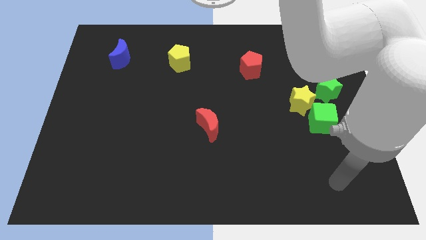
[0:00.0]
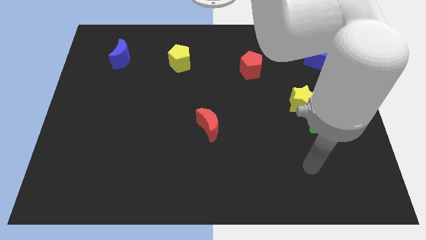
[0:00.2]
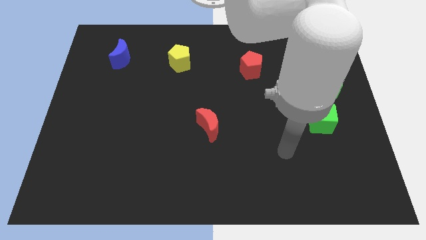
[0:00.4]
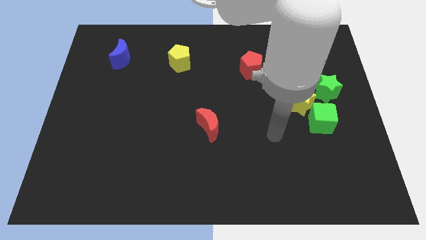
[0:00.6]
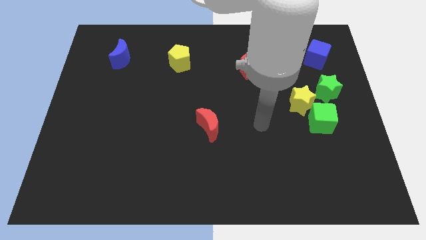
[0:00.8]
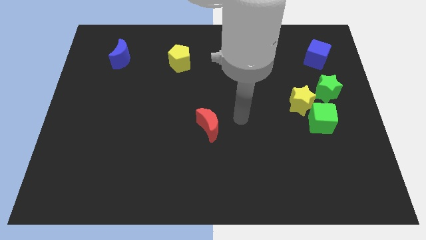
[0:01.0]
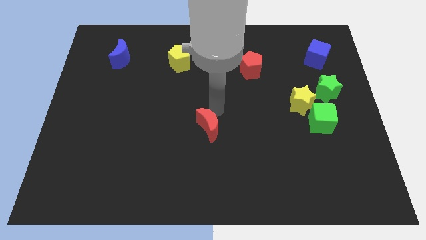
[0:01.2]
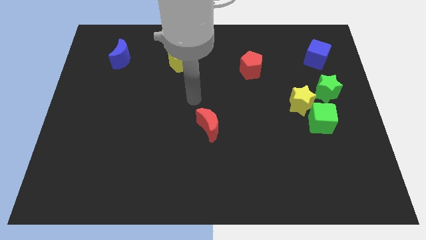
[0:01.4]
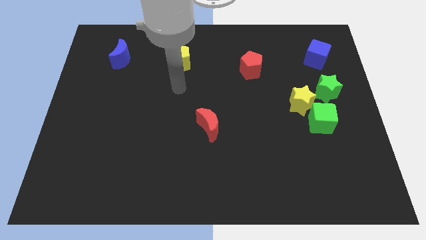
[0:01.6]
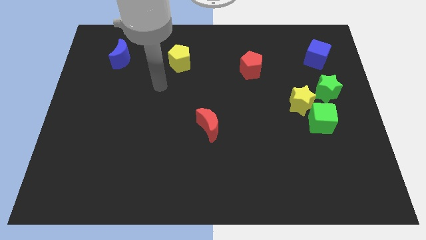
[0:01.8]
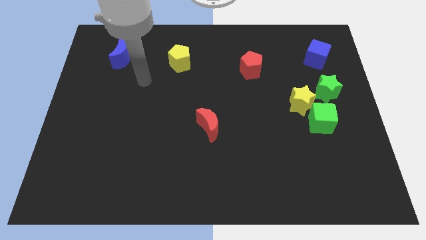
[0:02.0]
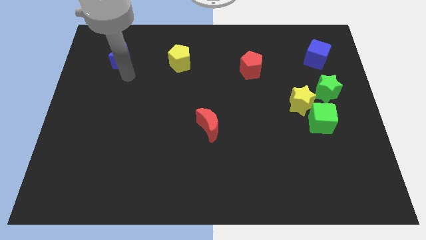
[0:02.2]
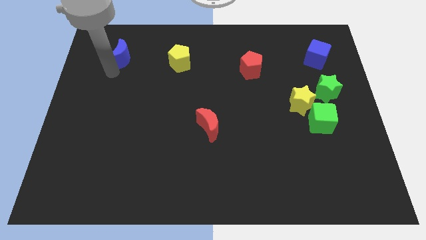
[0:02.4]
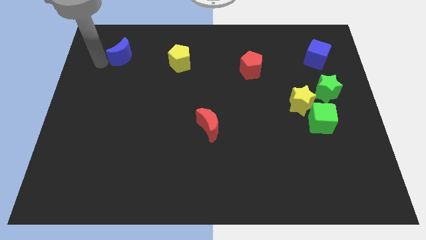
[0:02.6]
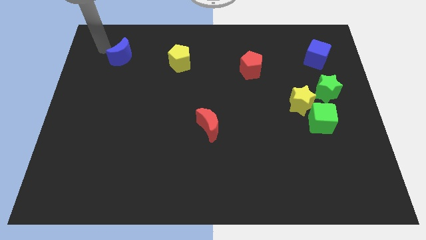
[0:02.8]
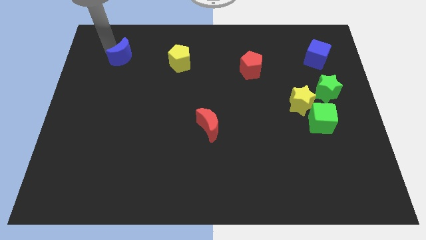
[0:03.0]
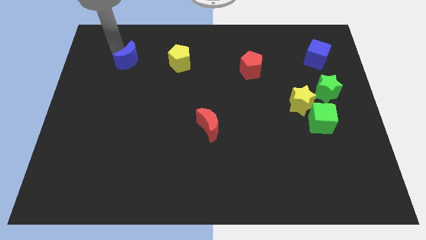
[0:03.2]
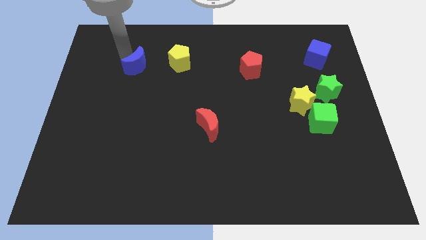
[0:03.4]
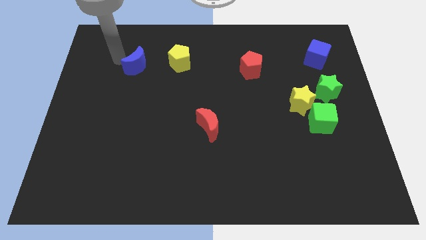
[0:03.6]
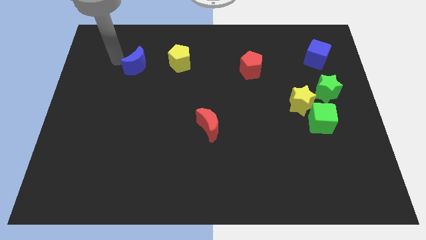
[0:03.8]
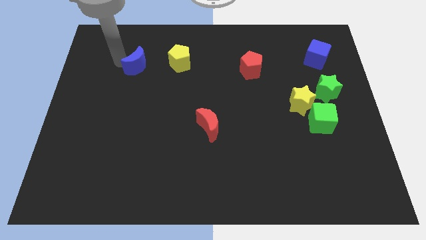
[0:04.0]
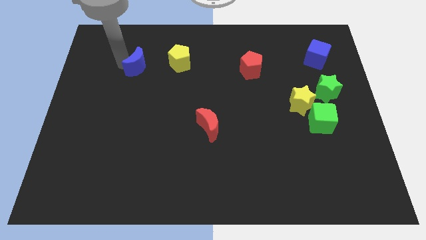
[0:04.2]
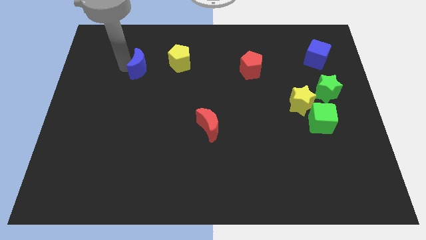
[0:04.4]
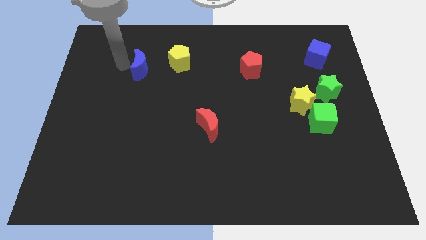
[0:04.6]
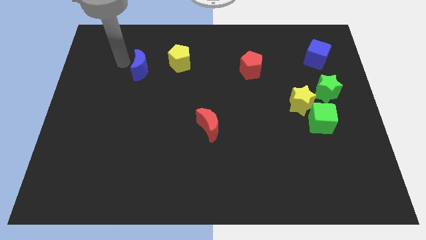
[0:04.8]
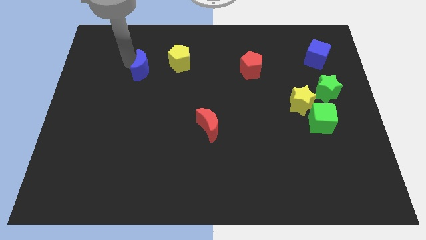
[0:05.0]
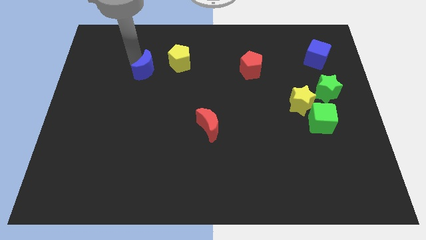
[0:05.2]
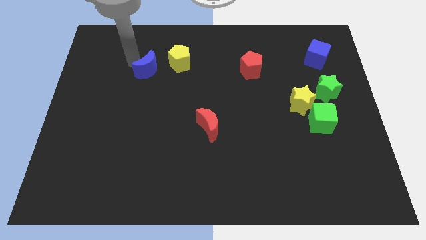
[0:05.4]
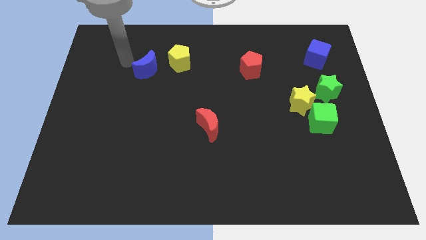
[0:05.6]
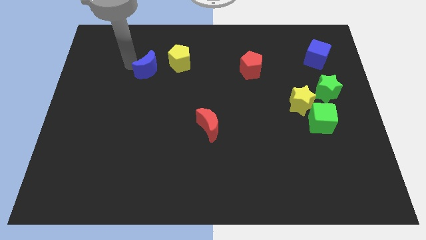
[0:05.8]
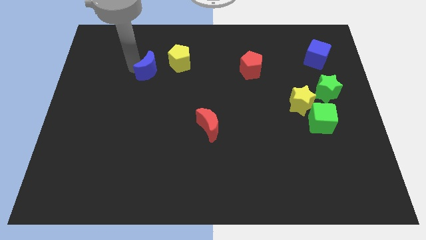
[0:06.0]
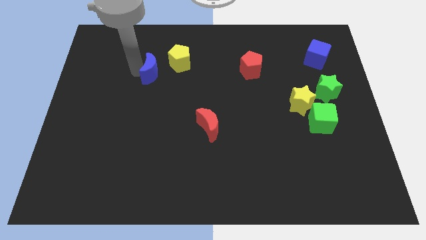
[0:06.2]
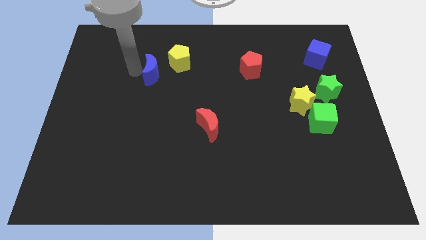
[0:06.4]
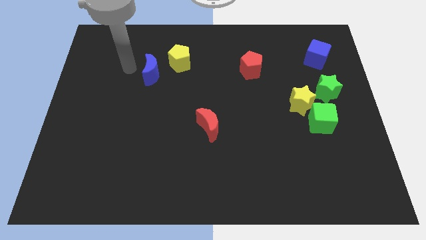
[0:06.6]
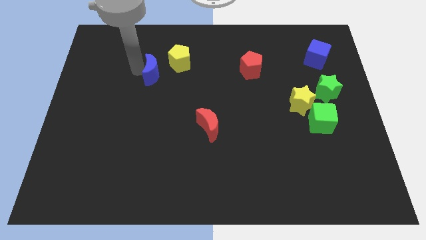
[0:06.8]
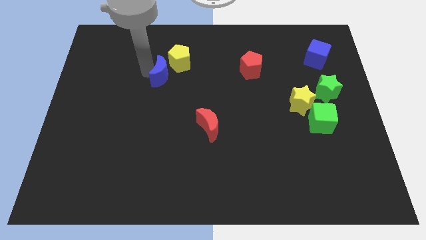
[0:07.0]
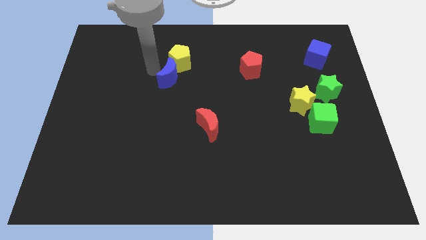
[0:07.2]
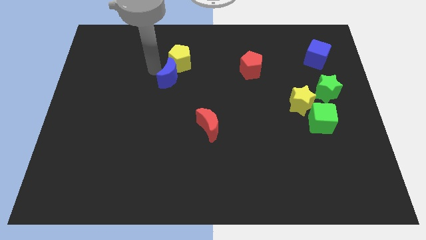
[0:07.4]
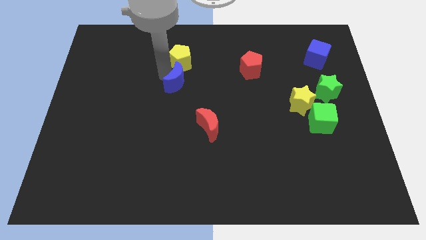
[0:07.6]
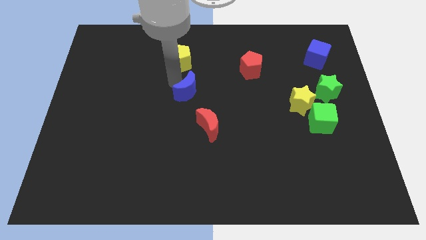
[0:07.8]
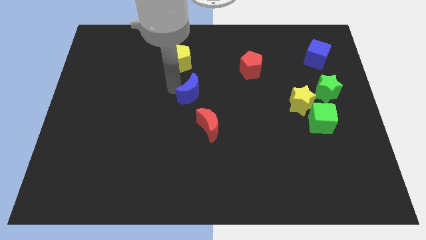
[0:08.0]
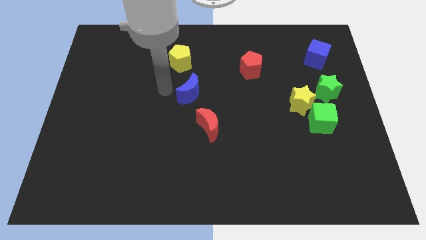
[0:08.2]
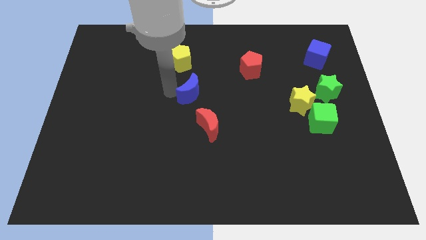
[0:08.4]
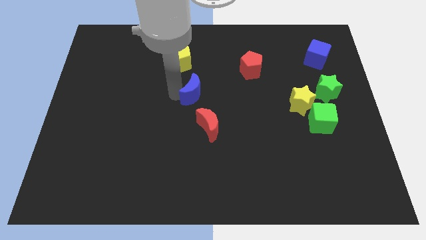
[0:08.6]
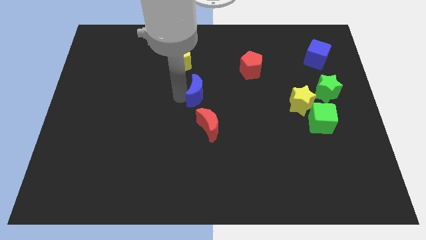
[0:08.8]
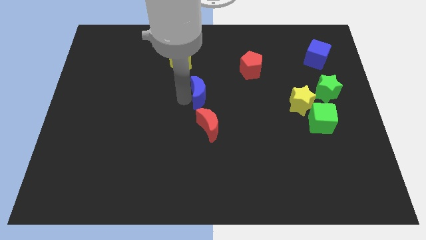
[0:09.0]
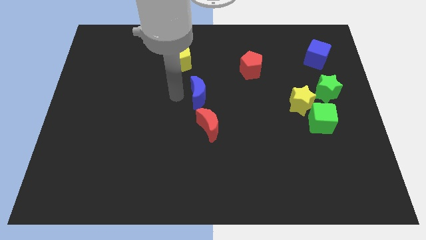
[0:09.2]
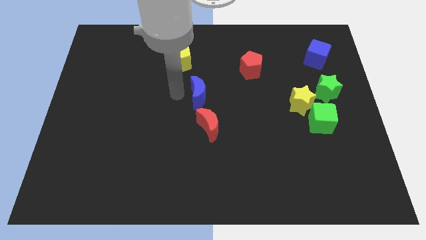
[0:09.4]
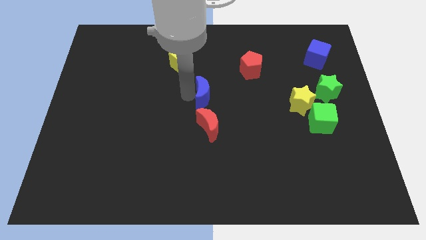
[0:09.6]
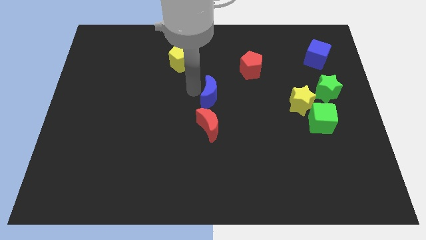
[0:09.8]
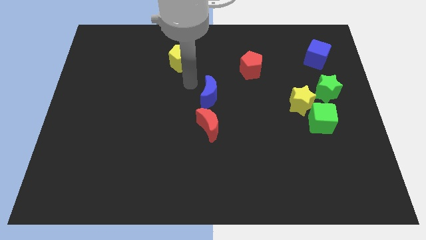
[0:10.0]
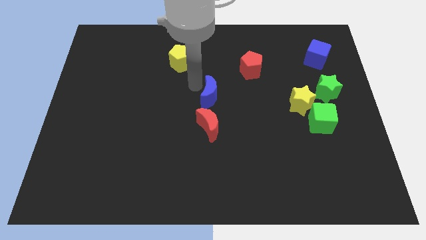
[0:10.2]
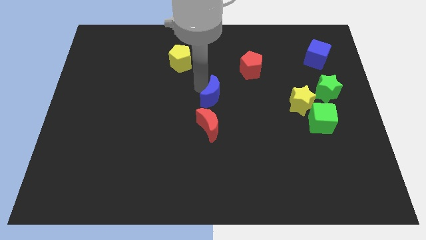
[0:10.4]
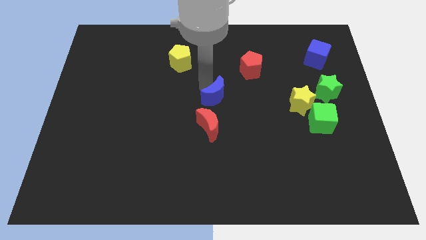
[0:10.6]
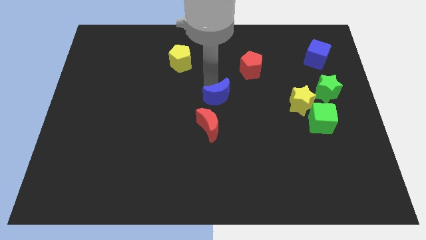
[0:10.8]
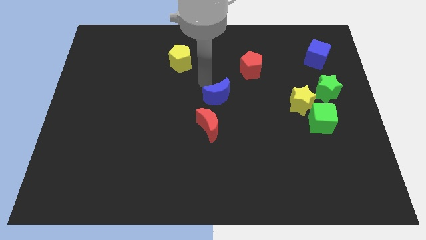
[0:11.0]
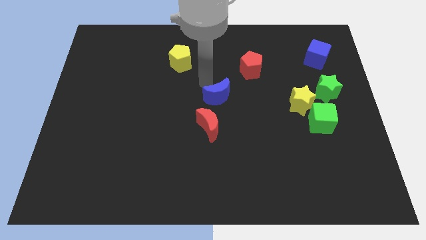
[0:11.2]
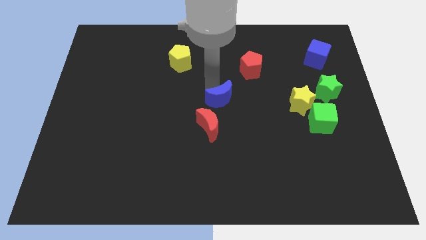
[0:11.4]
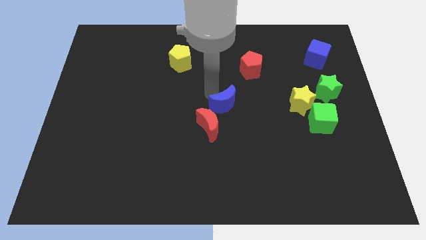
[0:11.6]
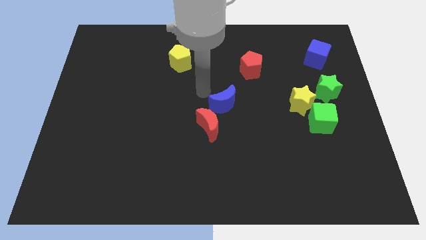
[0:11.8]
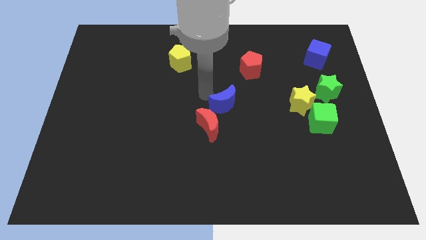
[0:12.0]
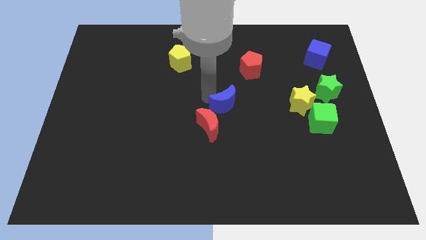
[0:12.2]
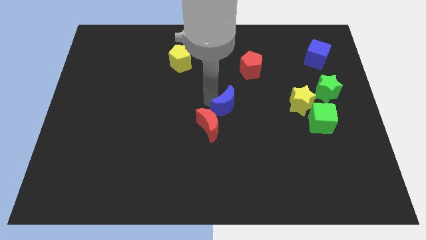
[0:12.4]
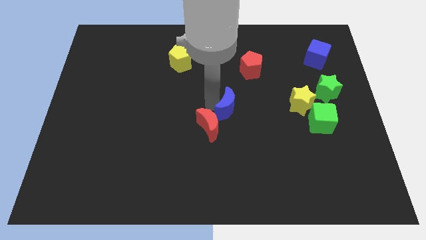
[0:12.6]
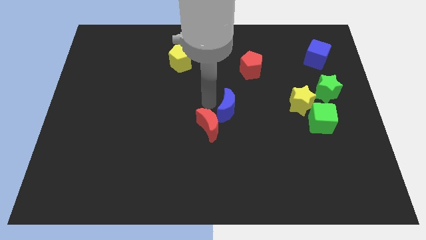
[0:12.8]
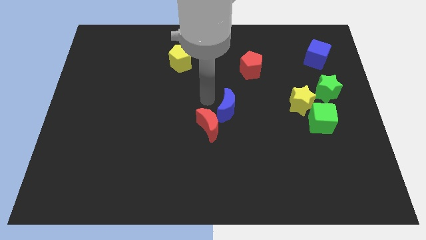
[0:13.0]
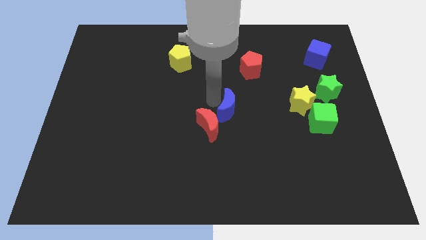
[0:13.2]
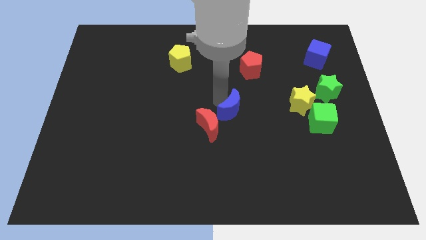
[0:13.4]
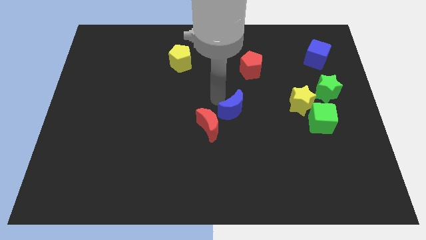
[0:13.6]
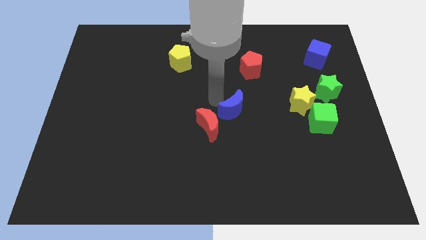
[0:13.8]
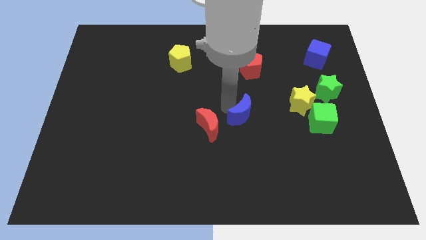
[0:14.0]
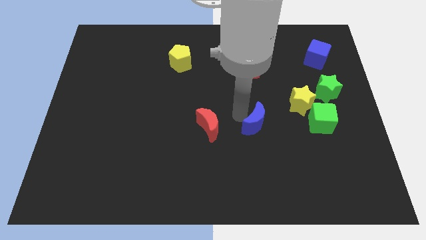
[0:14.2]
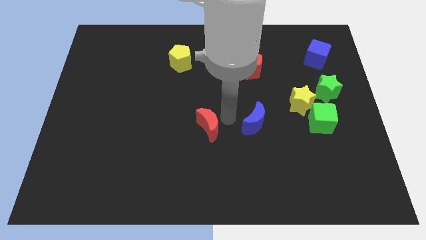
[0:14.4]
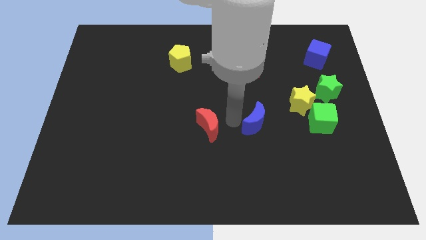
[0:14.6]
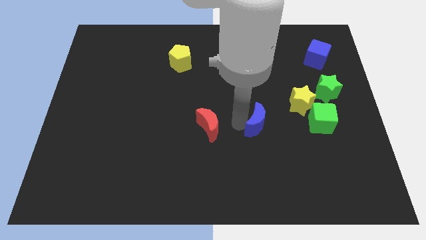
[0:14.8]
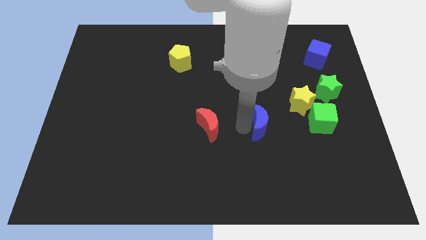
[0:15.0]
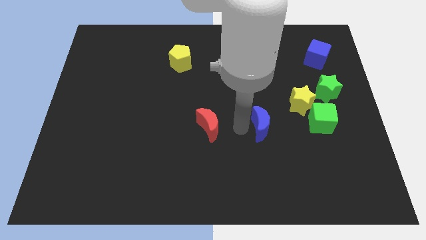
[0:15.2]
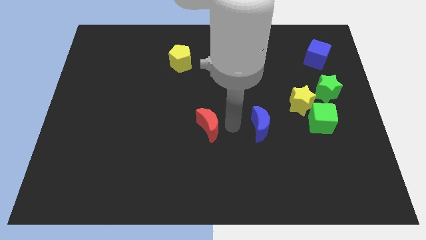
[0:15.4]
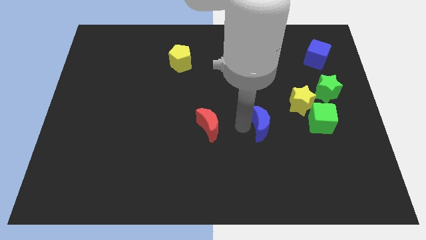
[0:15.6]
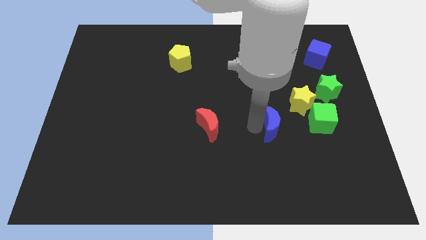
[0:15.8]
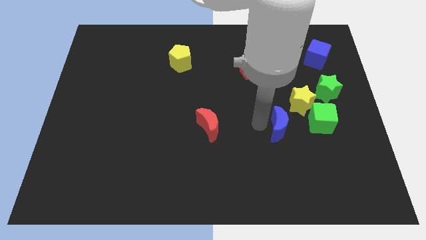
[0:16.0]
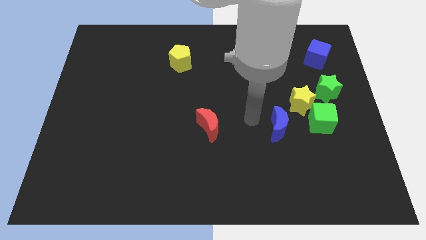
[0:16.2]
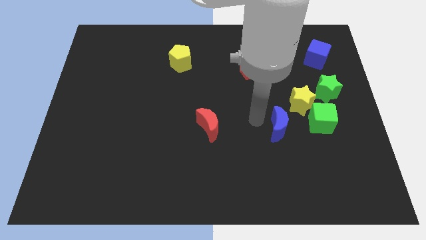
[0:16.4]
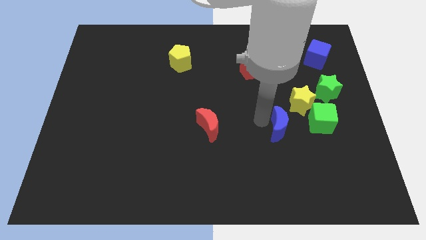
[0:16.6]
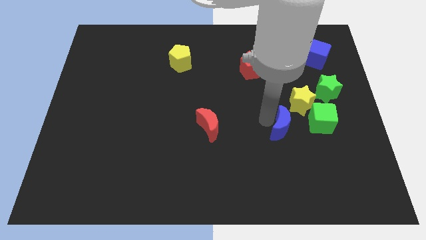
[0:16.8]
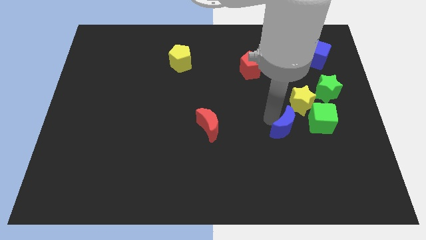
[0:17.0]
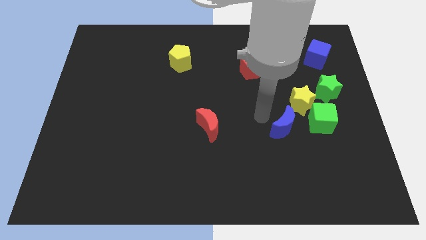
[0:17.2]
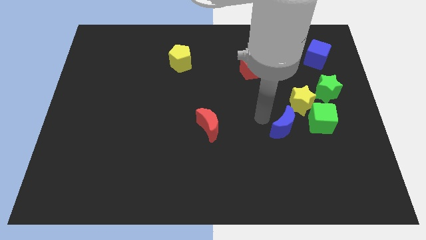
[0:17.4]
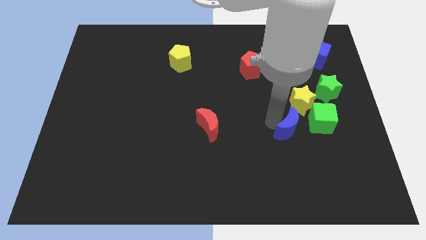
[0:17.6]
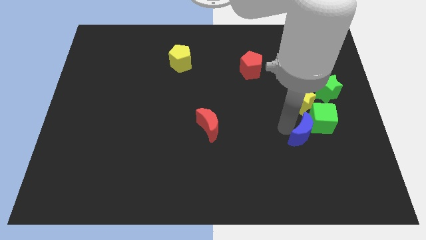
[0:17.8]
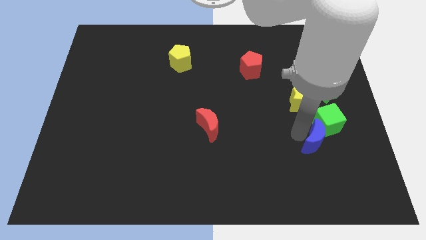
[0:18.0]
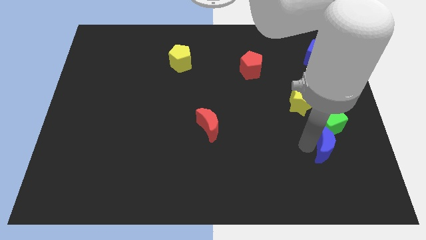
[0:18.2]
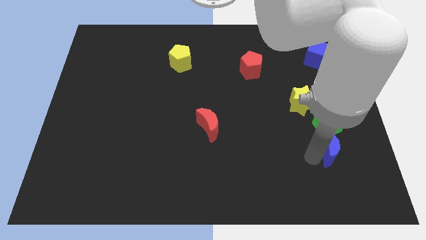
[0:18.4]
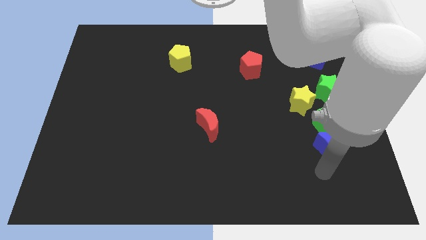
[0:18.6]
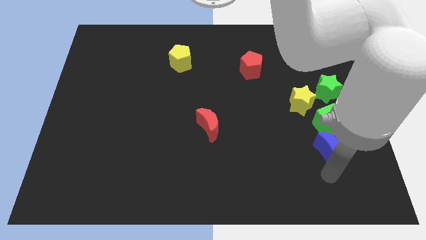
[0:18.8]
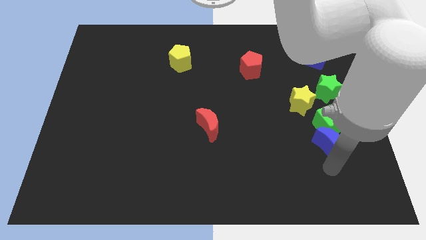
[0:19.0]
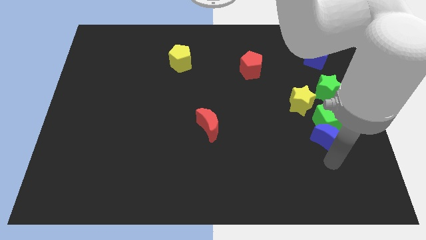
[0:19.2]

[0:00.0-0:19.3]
push the blue moon diagonally down and to the right of the yellow star
